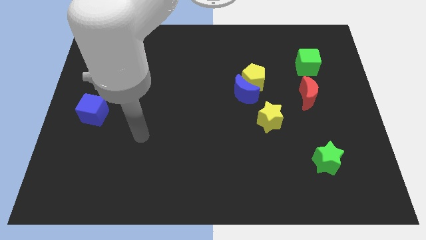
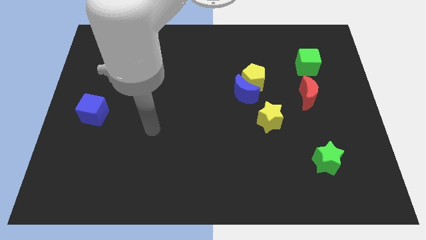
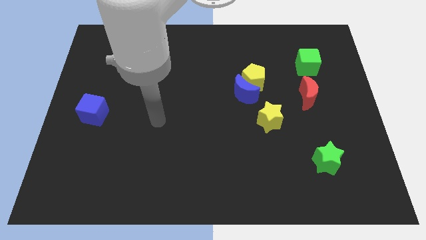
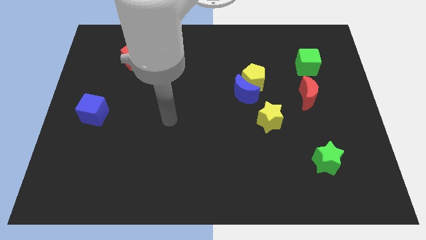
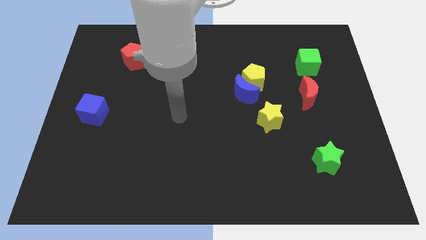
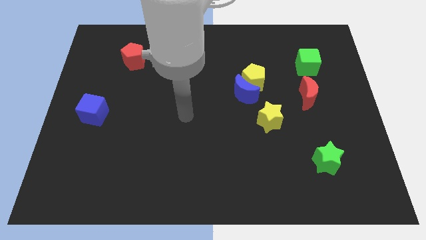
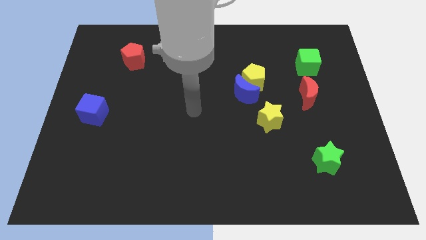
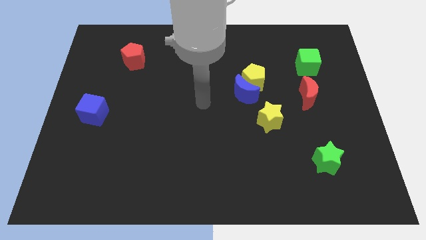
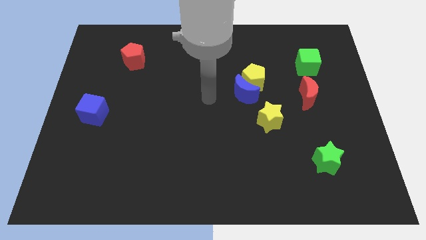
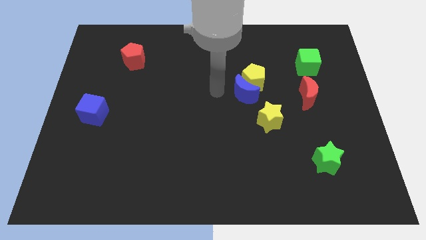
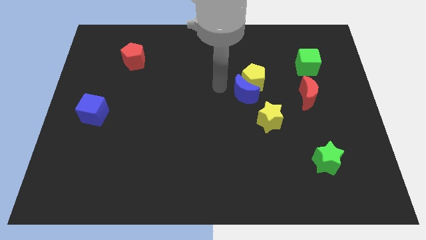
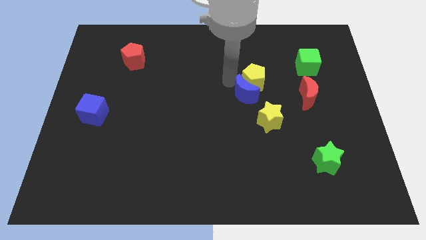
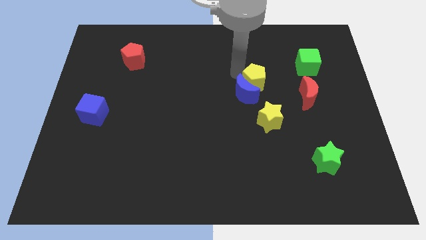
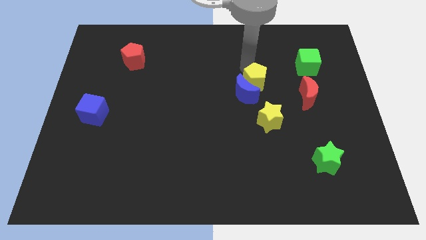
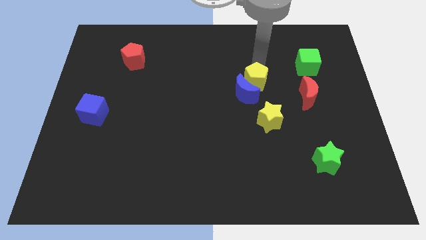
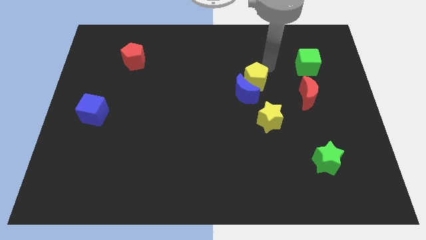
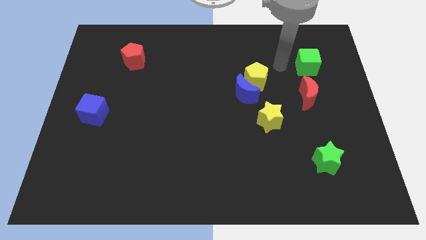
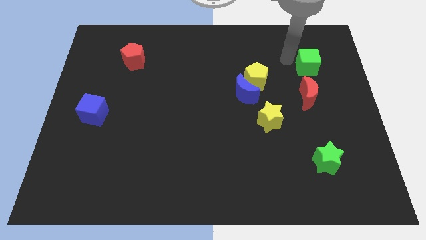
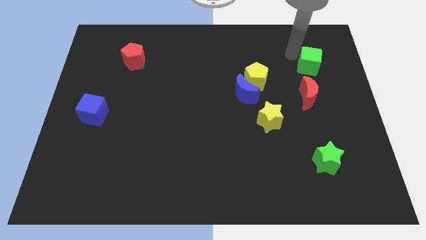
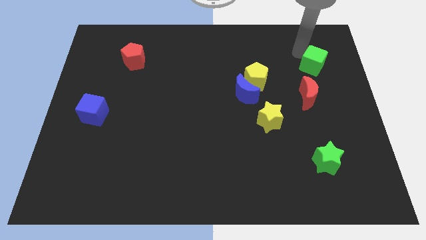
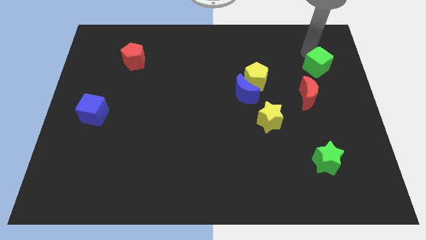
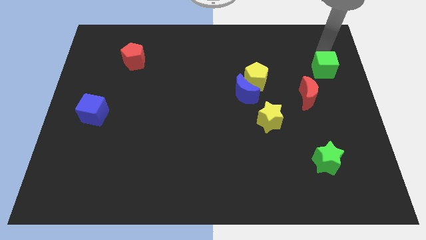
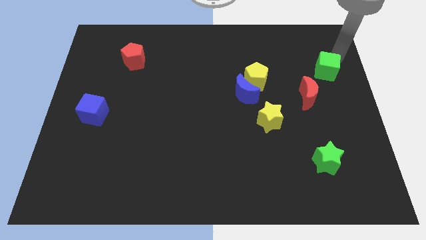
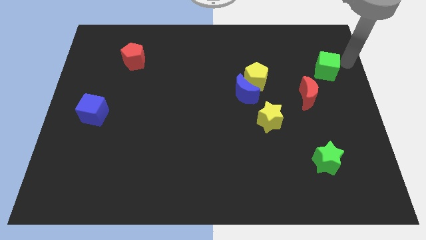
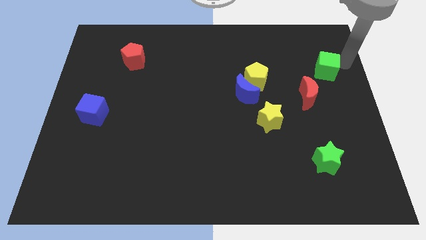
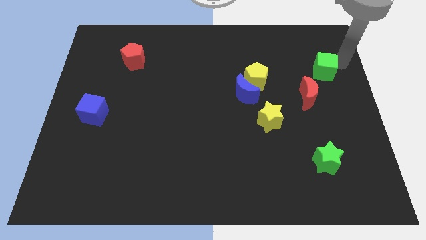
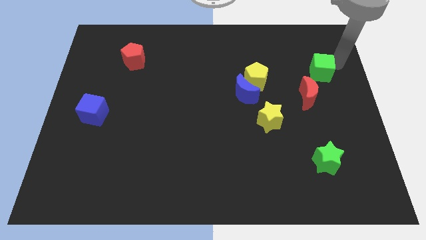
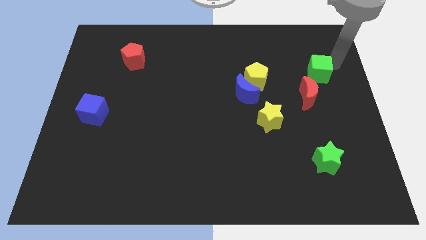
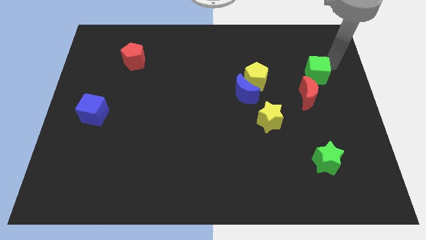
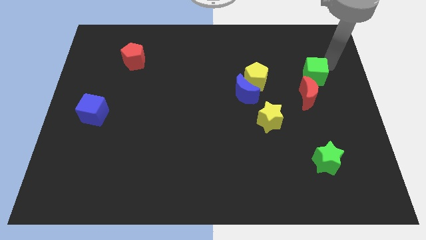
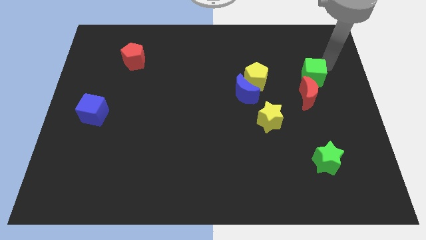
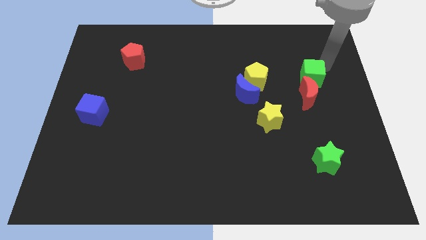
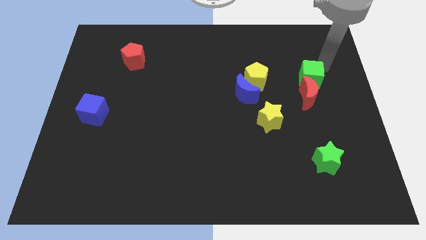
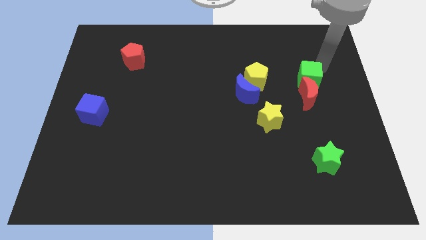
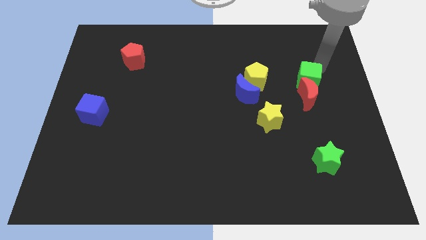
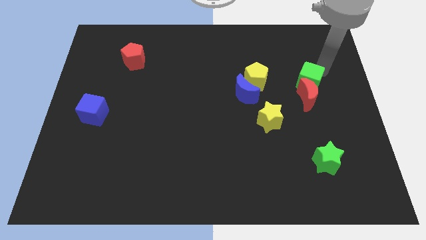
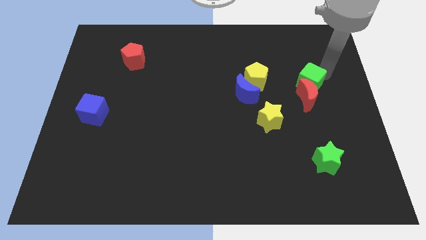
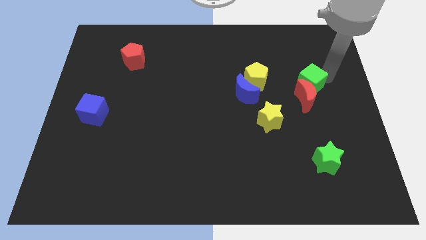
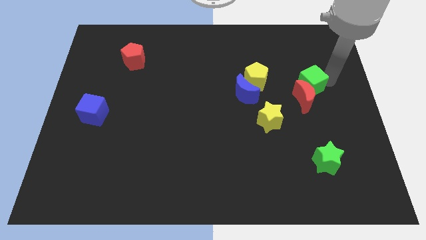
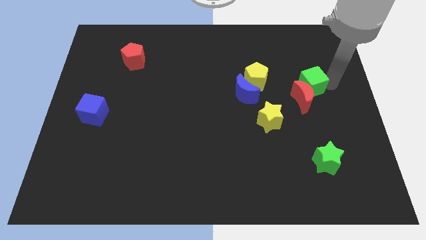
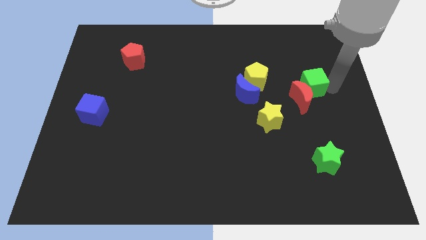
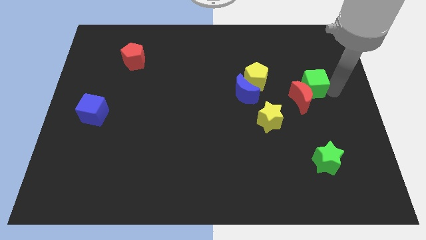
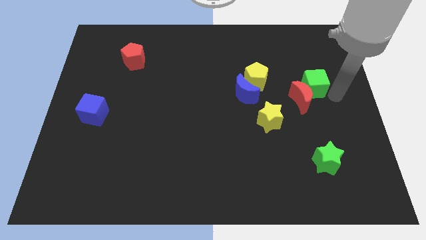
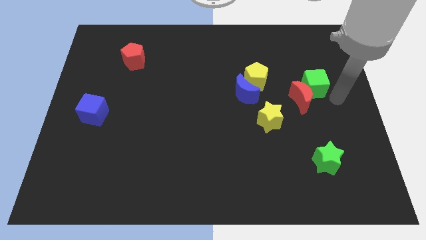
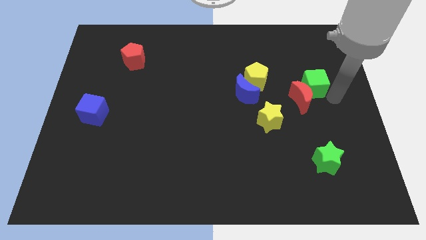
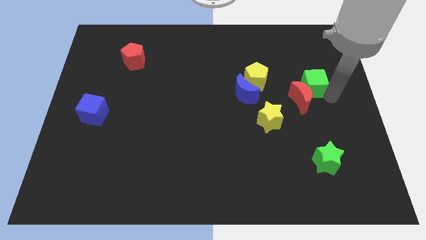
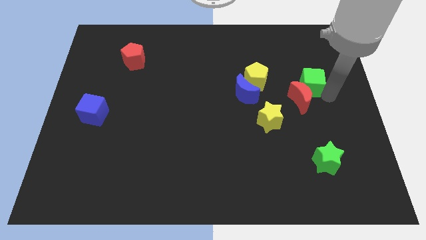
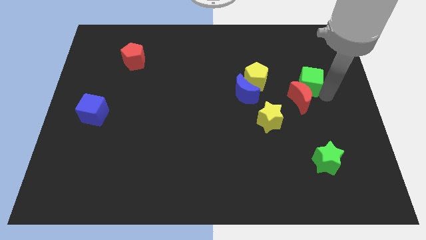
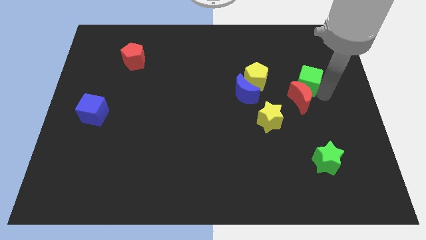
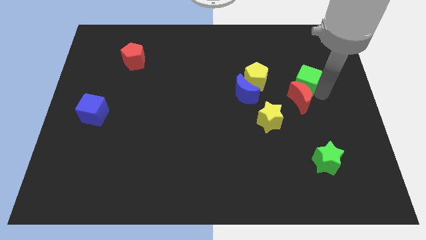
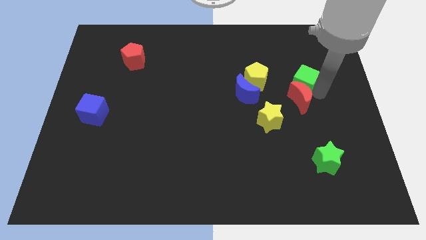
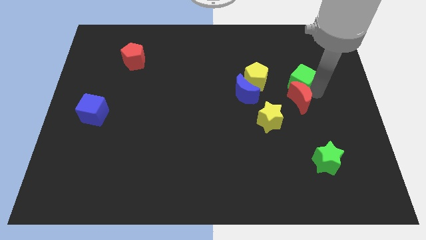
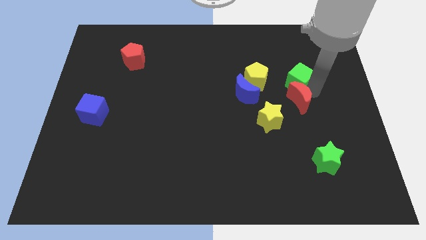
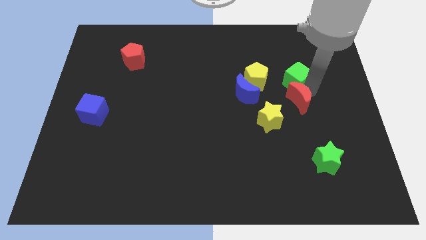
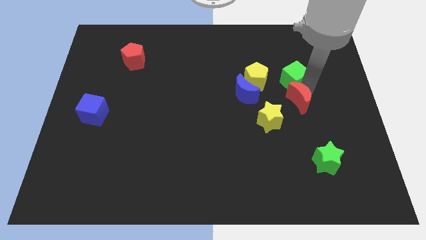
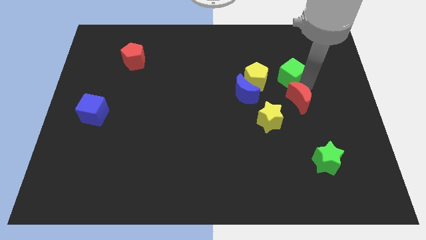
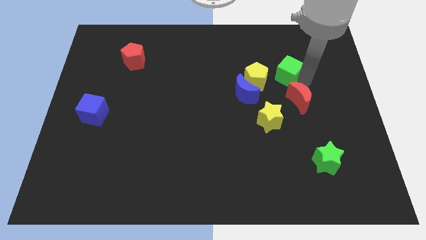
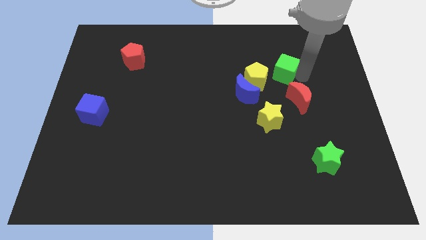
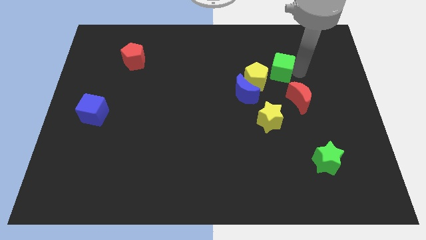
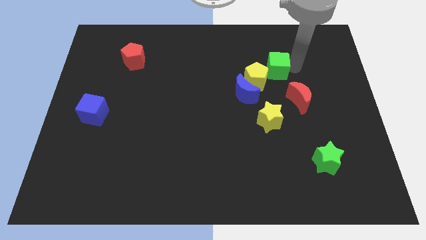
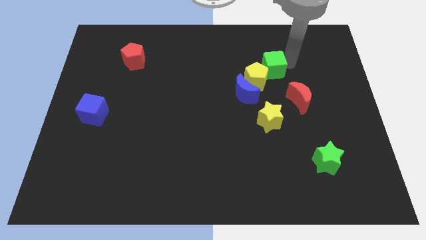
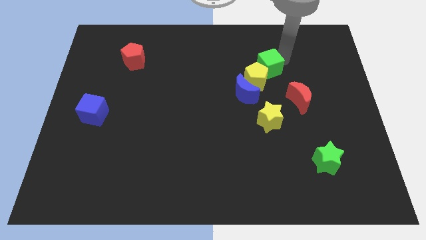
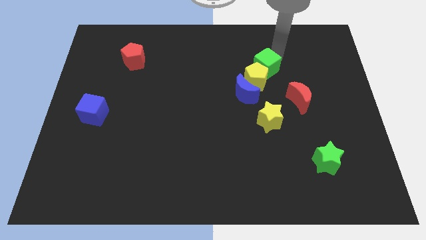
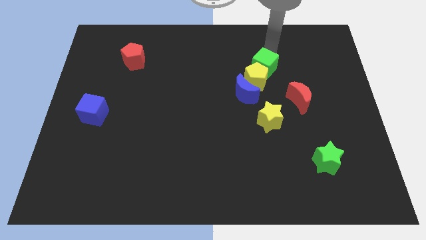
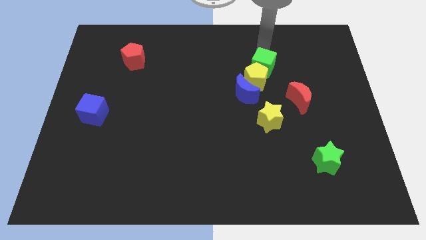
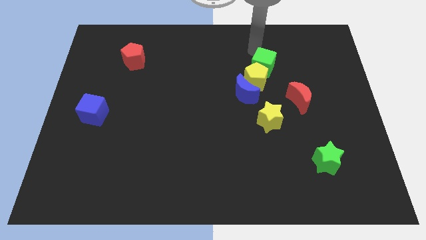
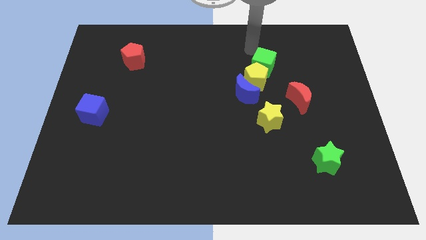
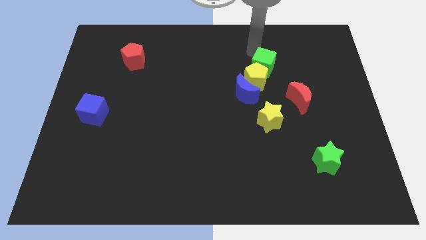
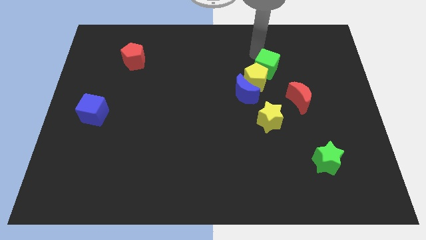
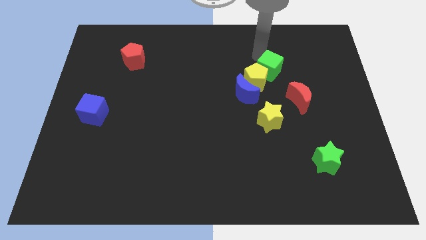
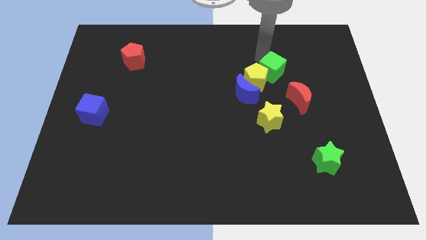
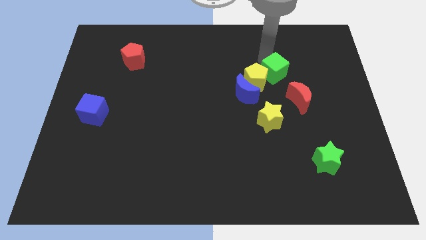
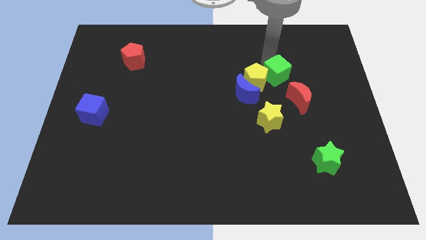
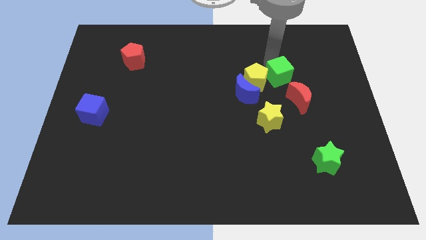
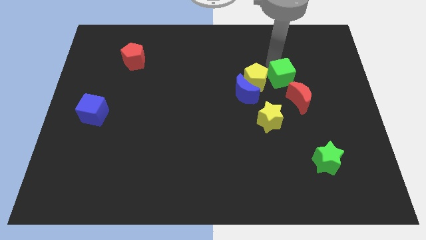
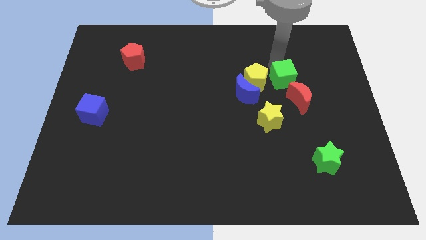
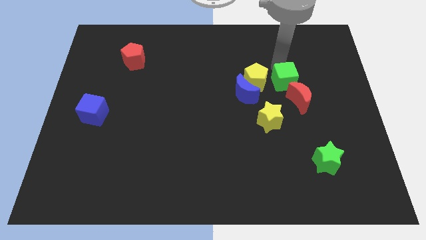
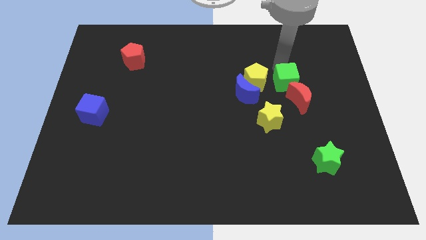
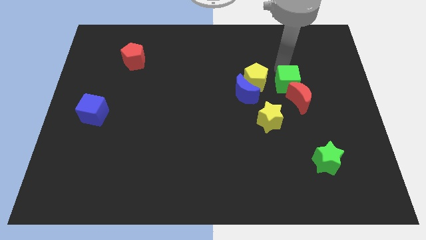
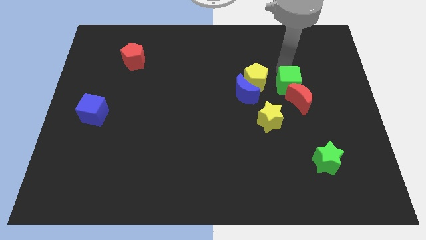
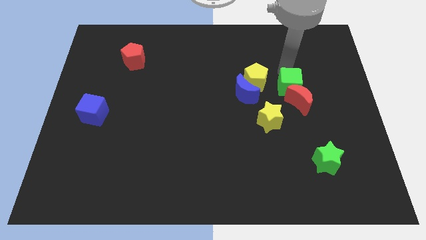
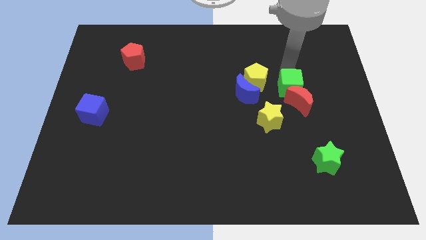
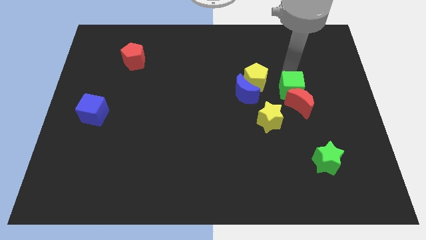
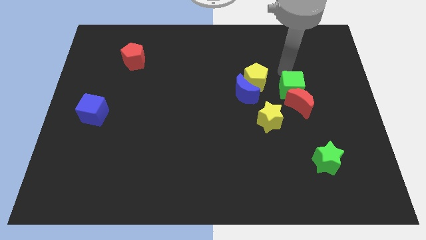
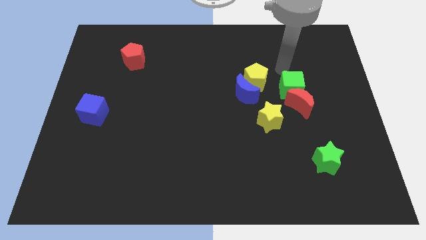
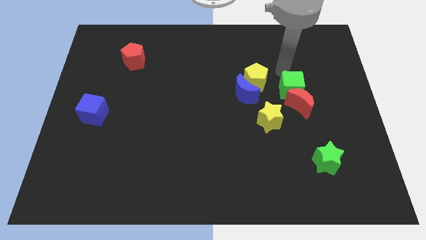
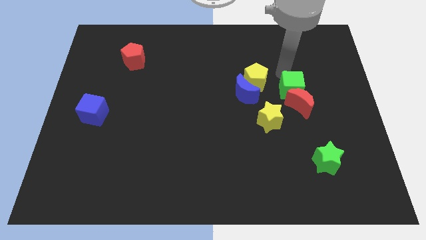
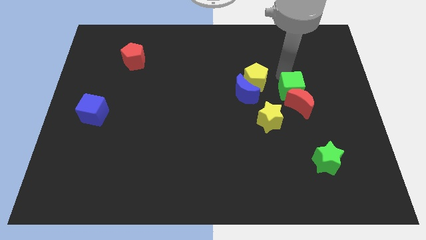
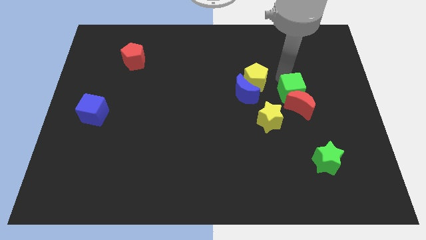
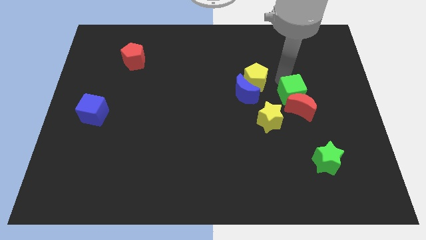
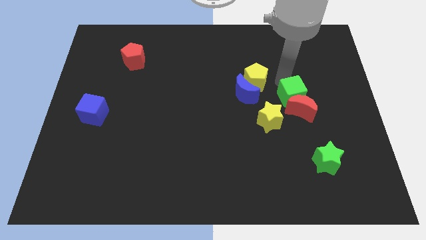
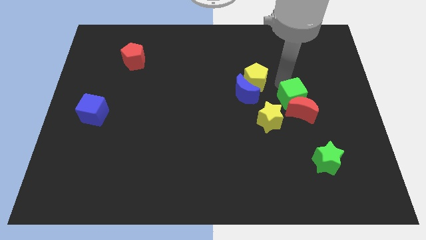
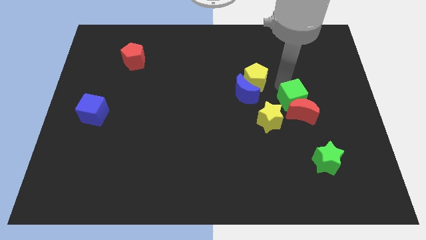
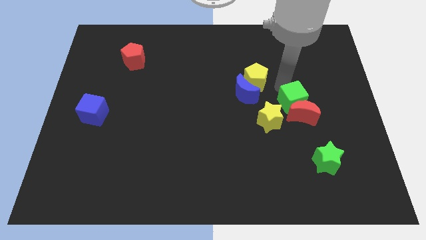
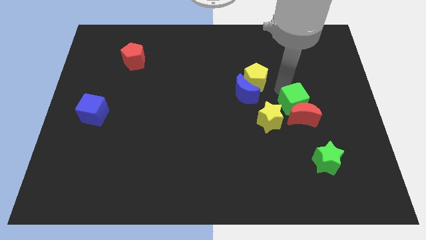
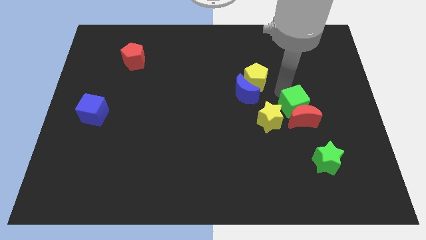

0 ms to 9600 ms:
put the green cube right of the yellow star
